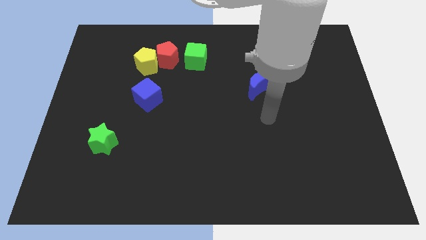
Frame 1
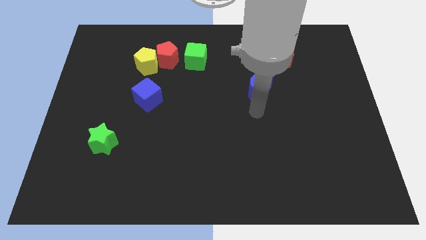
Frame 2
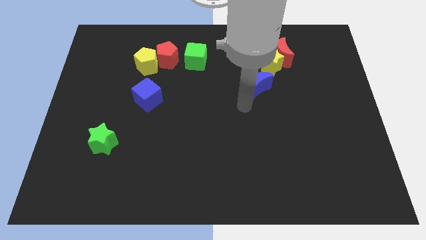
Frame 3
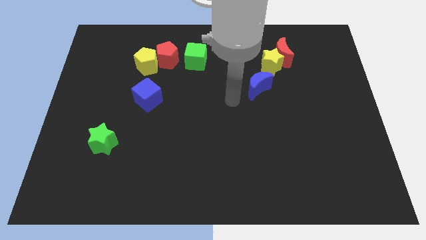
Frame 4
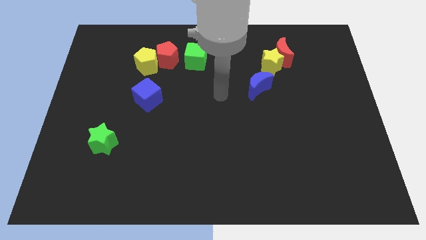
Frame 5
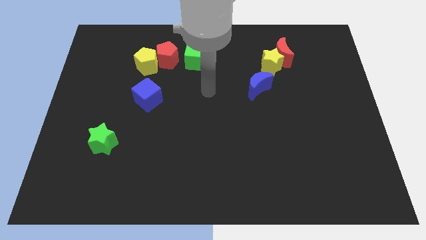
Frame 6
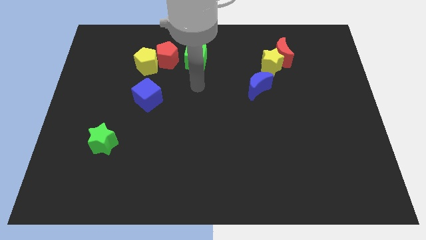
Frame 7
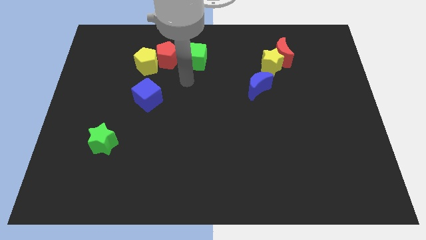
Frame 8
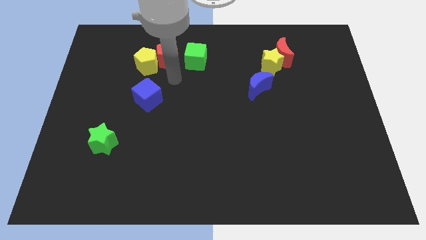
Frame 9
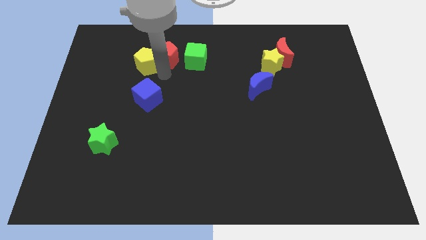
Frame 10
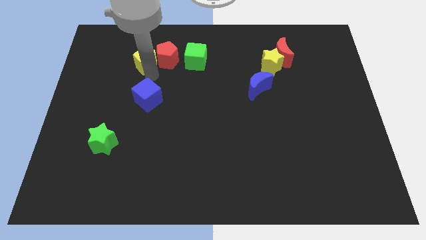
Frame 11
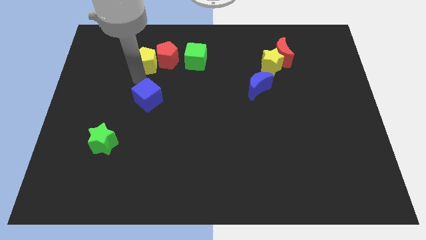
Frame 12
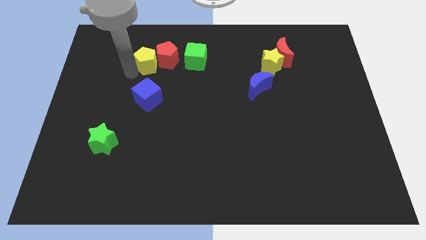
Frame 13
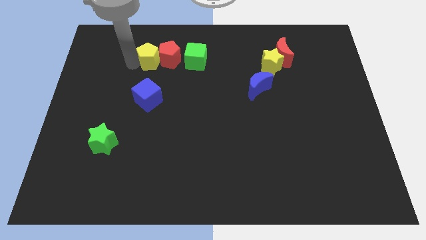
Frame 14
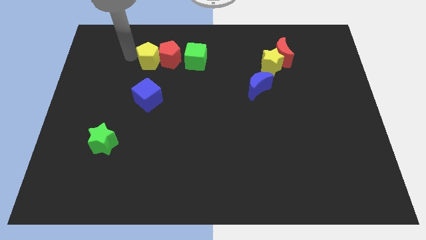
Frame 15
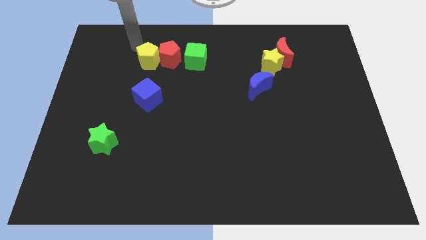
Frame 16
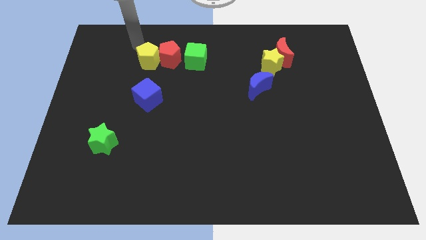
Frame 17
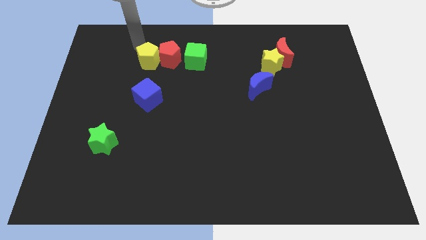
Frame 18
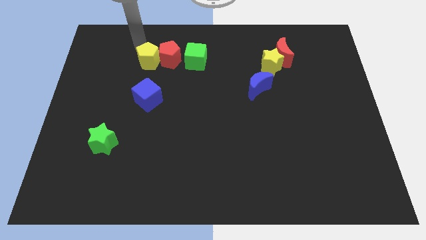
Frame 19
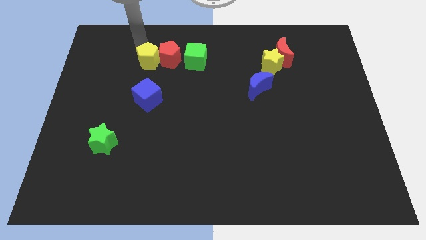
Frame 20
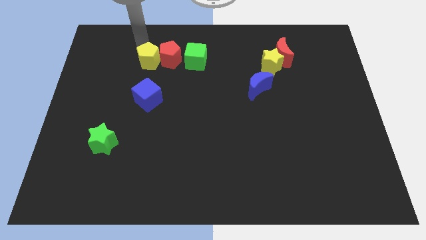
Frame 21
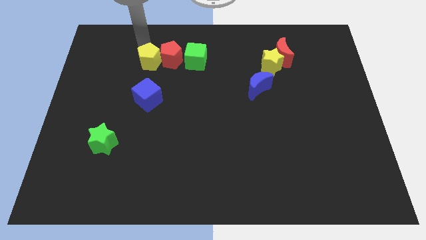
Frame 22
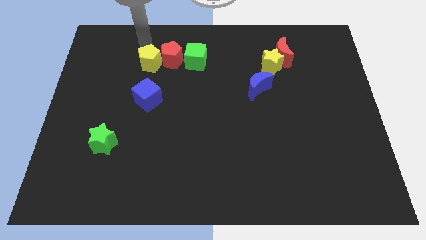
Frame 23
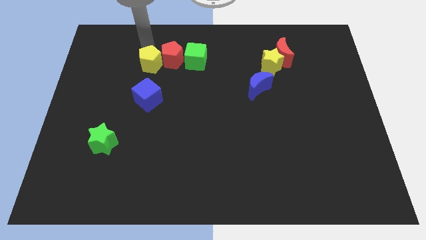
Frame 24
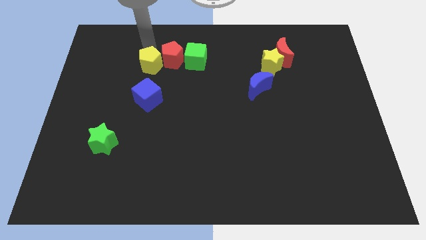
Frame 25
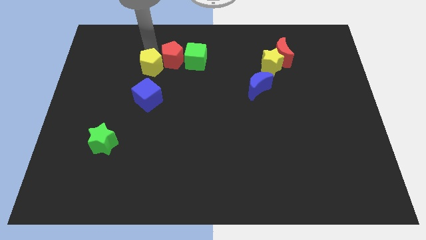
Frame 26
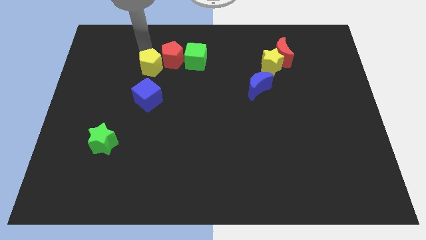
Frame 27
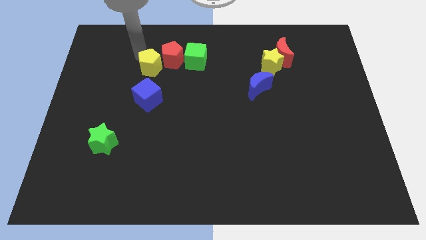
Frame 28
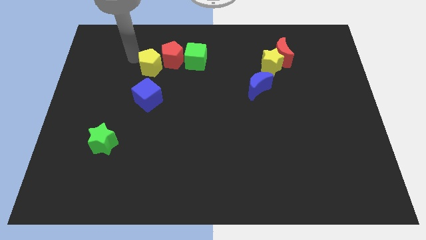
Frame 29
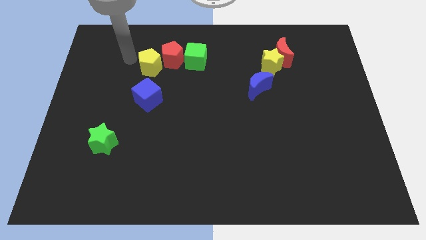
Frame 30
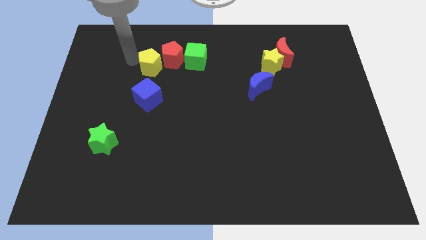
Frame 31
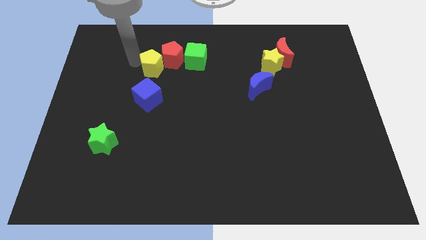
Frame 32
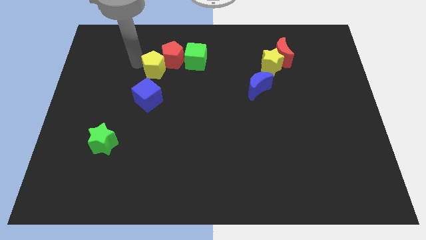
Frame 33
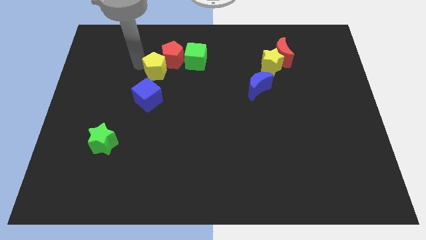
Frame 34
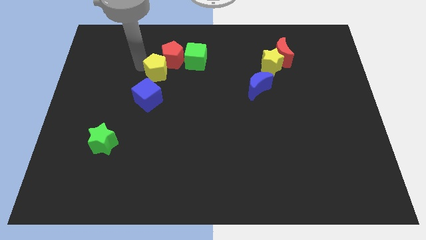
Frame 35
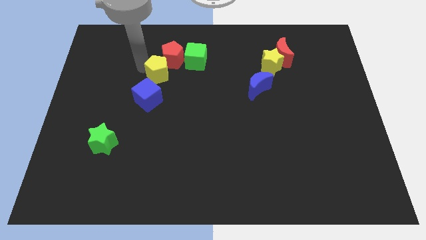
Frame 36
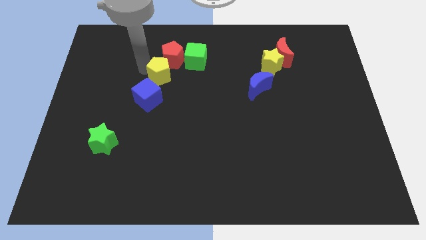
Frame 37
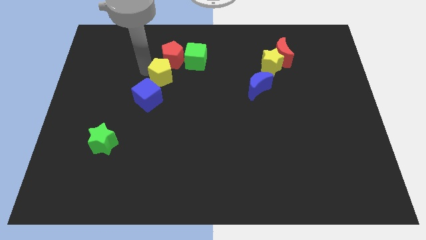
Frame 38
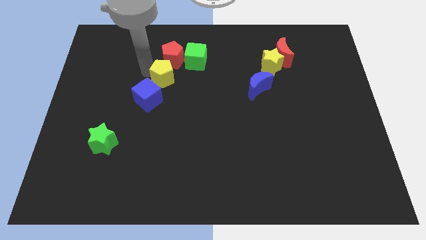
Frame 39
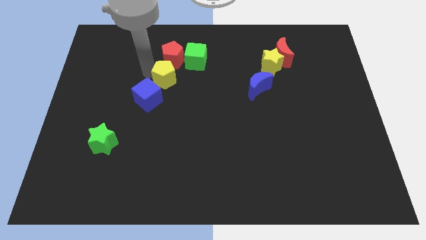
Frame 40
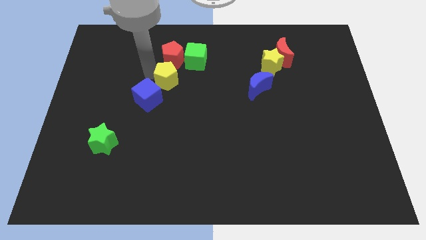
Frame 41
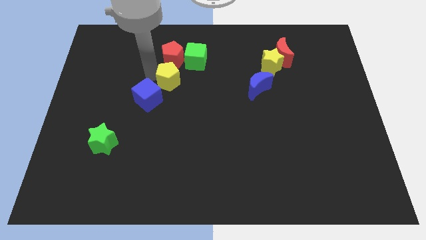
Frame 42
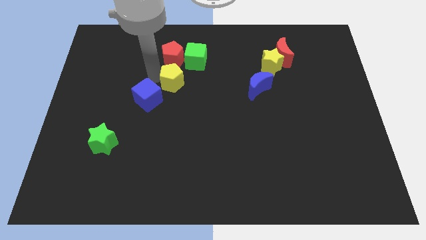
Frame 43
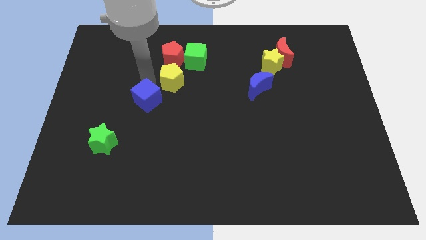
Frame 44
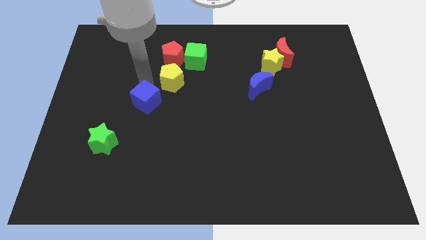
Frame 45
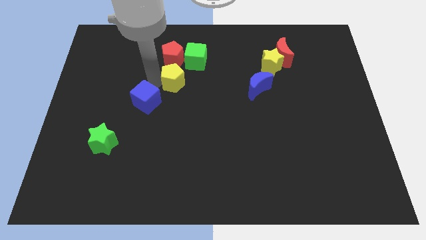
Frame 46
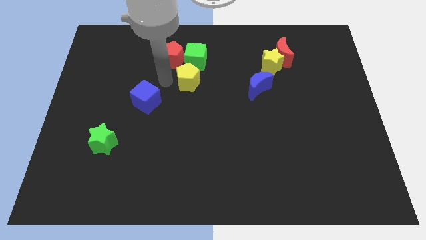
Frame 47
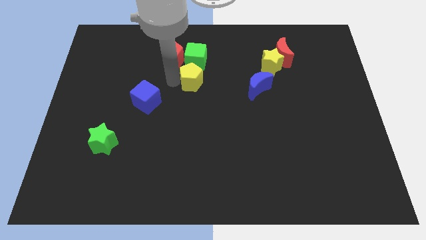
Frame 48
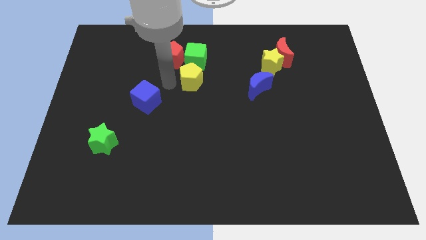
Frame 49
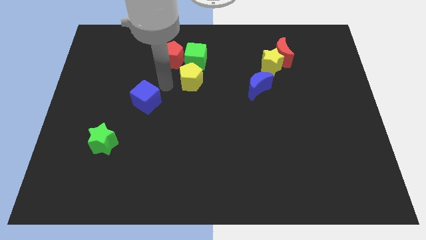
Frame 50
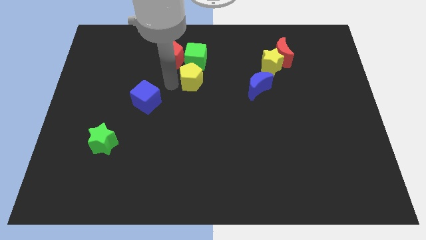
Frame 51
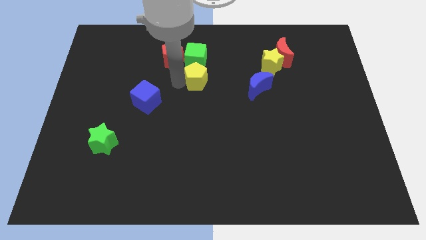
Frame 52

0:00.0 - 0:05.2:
move the yellow pentagon to the bottom right of the green cube

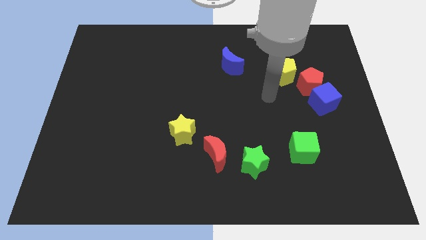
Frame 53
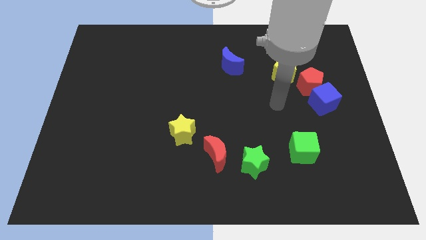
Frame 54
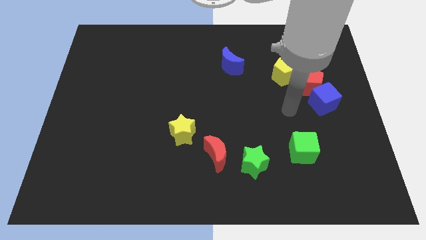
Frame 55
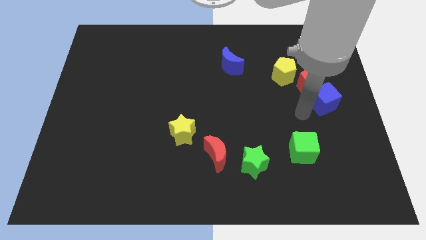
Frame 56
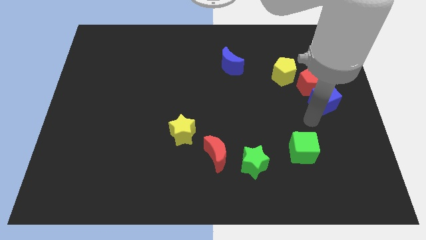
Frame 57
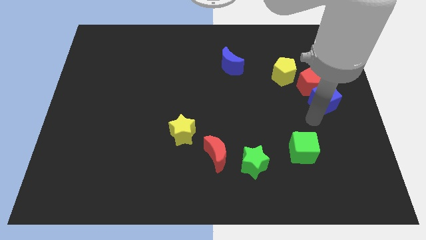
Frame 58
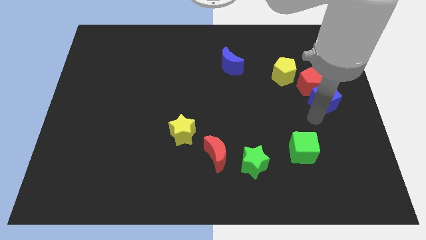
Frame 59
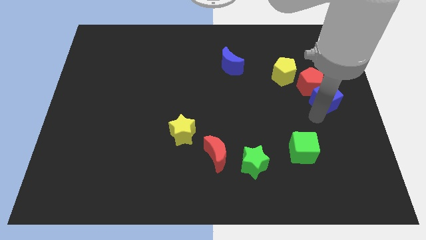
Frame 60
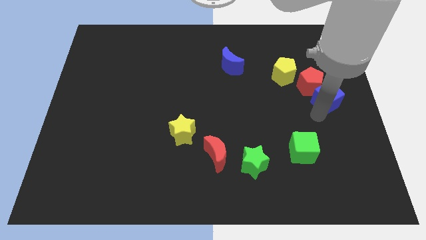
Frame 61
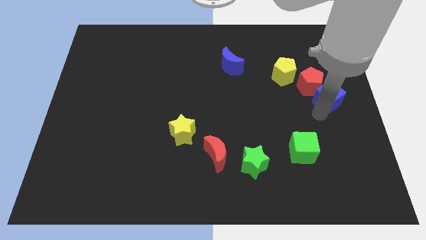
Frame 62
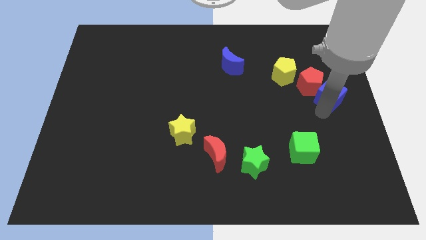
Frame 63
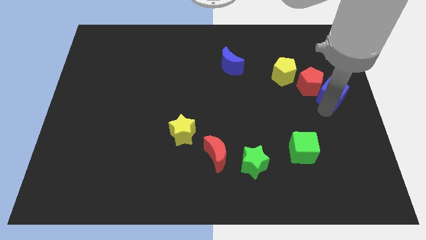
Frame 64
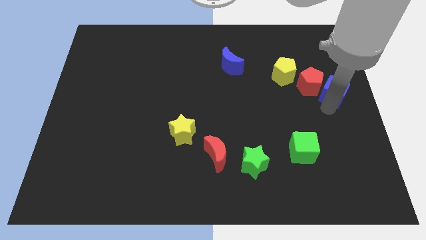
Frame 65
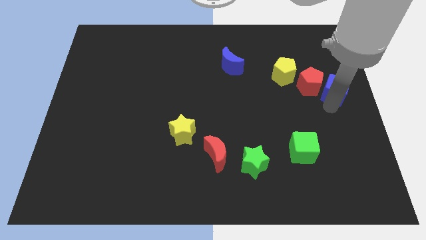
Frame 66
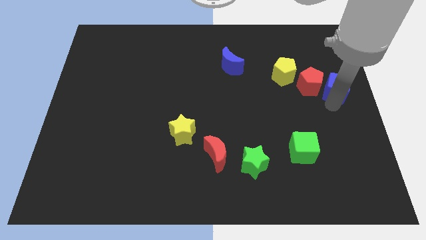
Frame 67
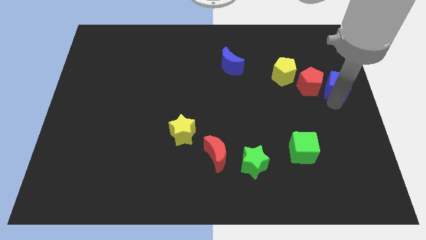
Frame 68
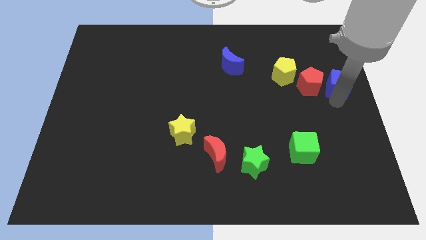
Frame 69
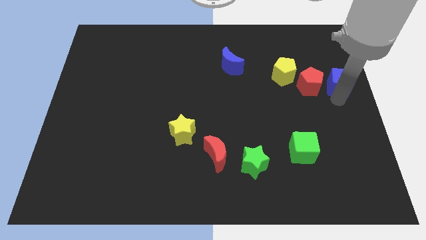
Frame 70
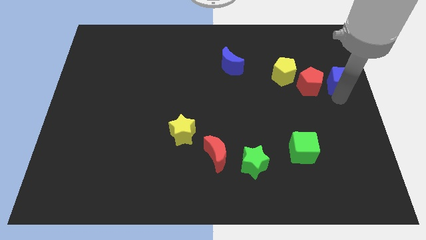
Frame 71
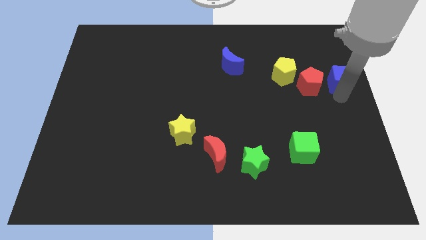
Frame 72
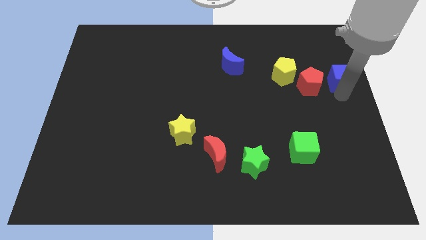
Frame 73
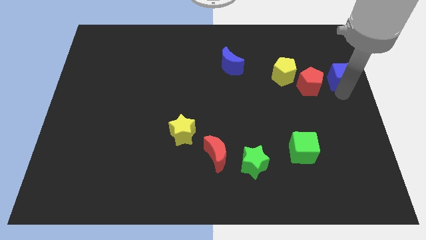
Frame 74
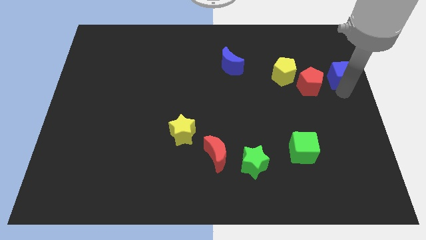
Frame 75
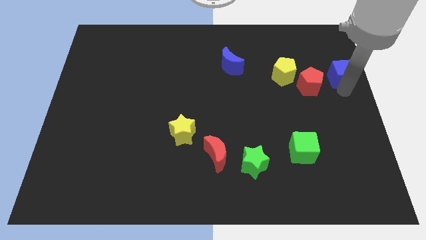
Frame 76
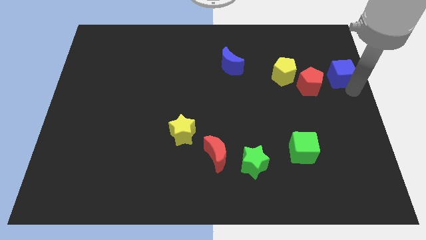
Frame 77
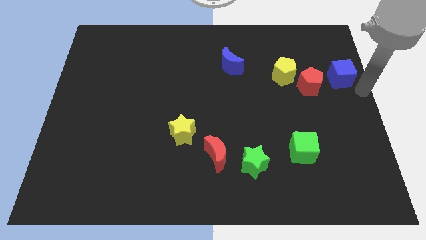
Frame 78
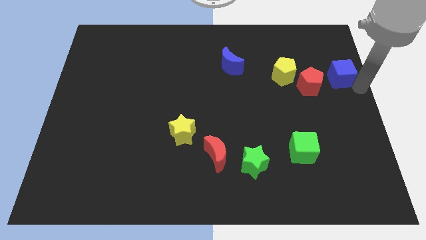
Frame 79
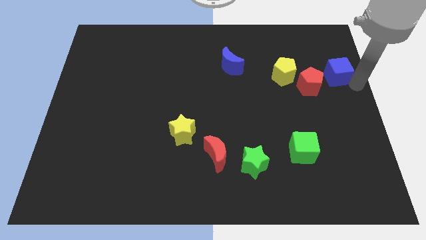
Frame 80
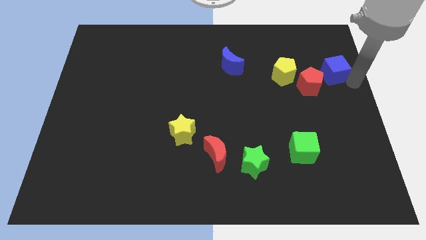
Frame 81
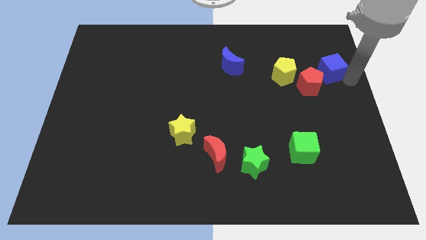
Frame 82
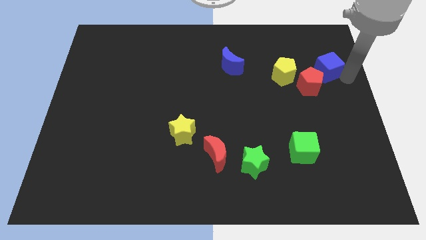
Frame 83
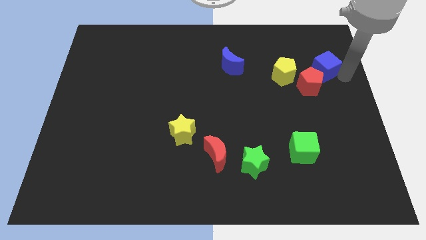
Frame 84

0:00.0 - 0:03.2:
move the blue cube to the top of the red pentagon
